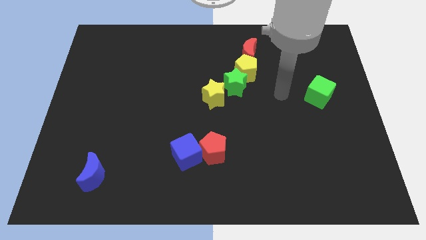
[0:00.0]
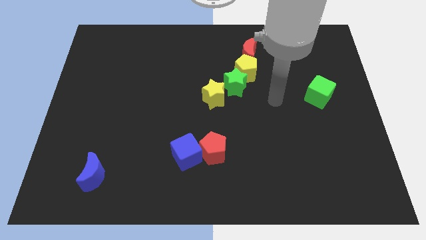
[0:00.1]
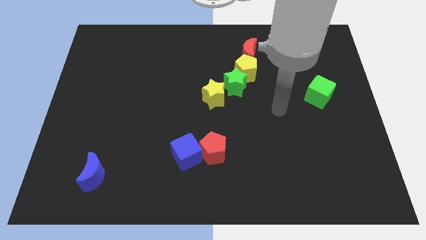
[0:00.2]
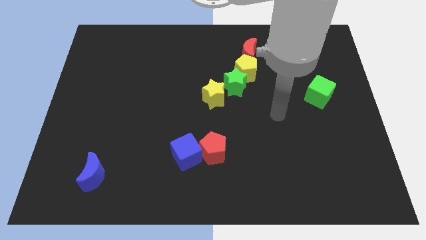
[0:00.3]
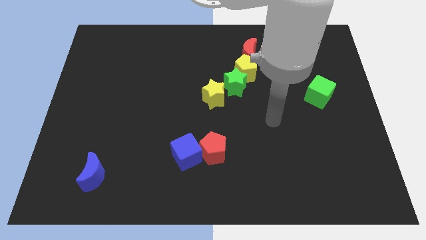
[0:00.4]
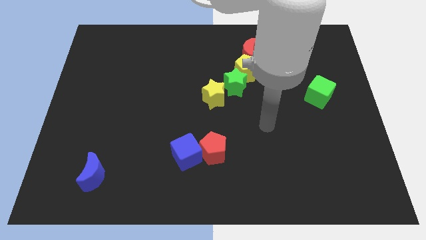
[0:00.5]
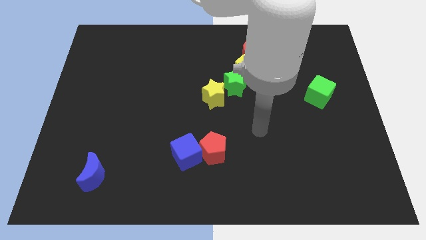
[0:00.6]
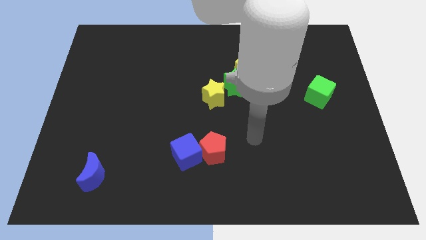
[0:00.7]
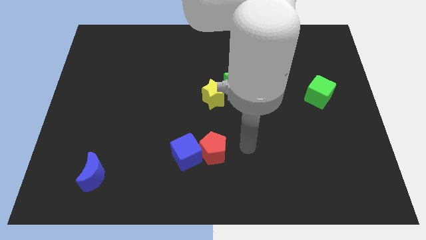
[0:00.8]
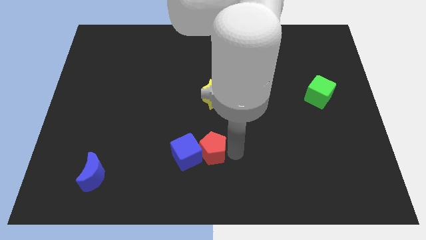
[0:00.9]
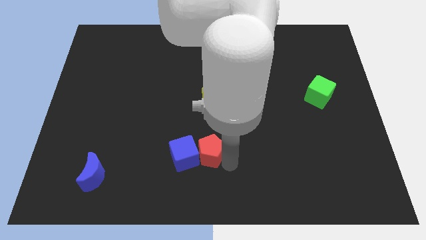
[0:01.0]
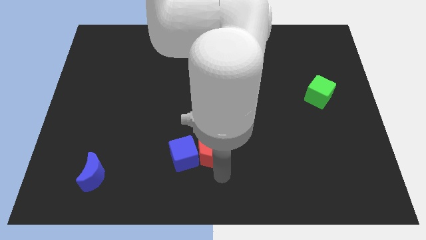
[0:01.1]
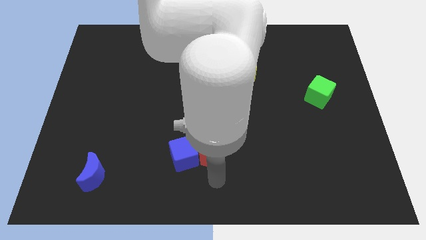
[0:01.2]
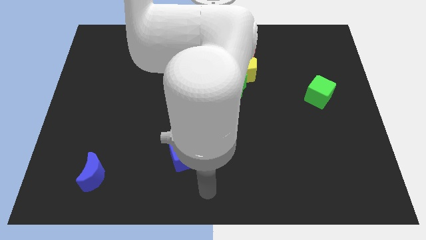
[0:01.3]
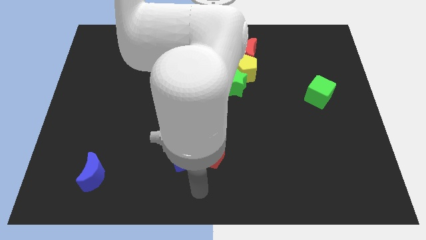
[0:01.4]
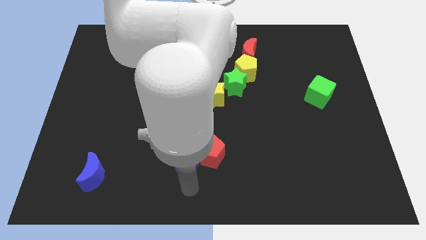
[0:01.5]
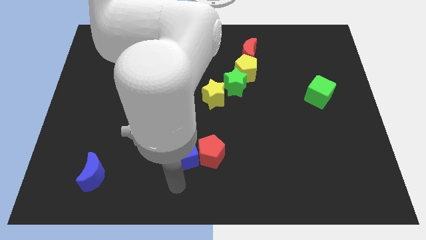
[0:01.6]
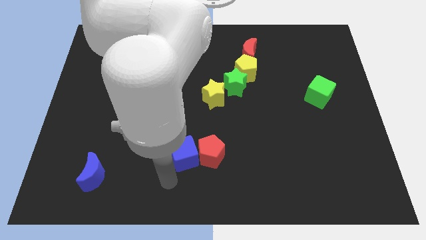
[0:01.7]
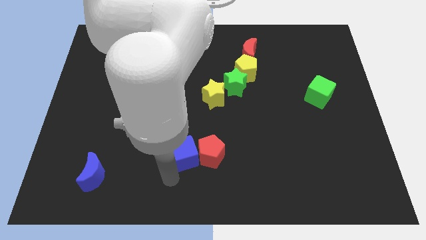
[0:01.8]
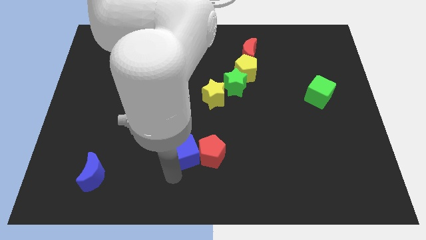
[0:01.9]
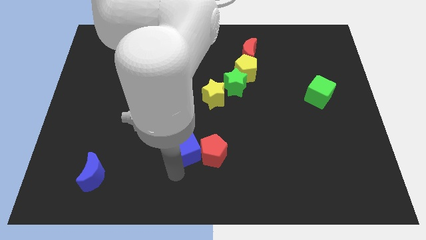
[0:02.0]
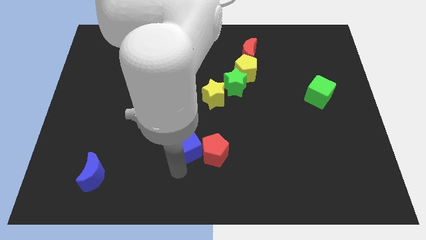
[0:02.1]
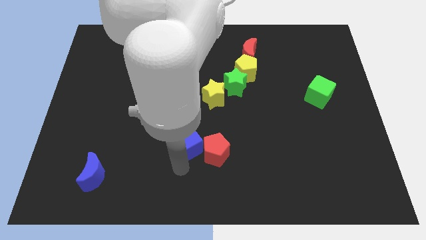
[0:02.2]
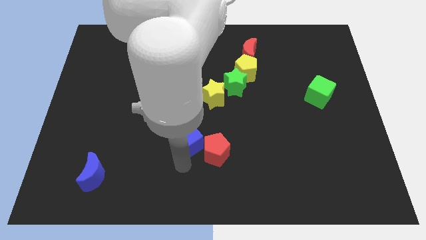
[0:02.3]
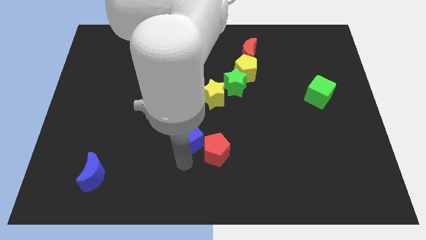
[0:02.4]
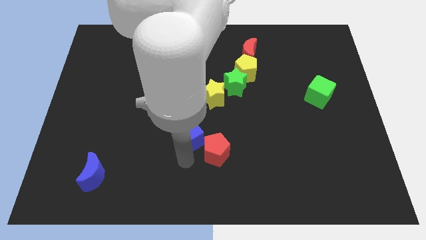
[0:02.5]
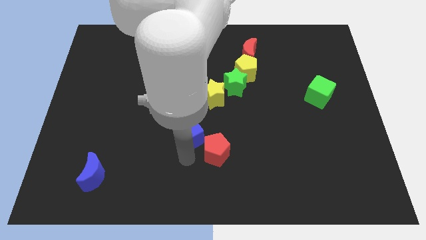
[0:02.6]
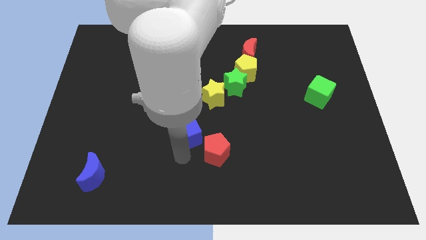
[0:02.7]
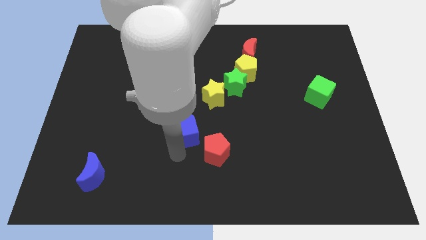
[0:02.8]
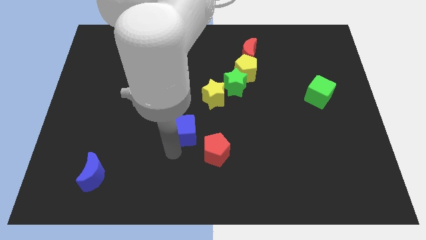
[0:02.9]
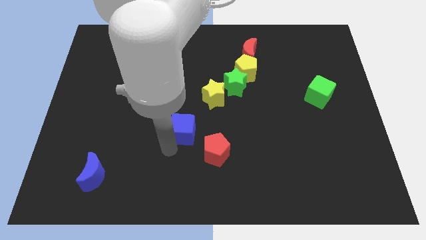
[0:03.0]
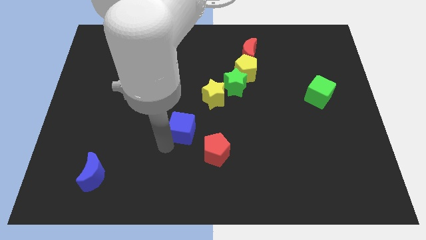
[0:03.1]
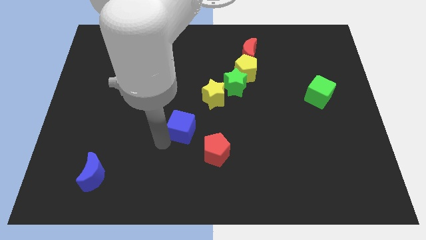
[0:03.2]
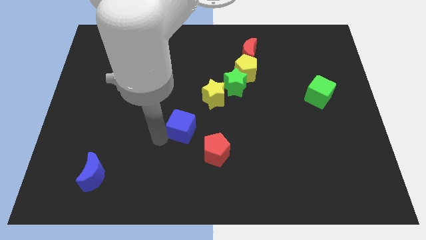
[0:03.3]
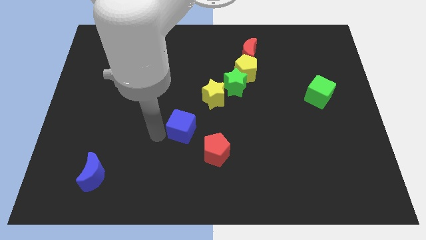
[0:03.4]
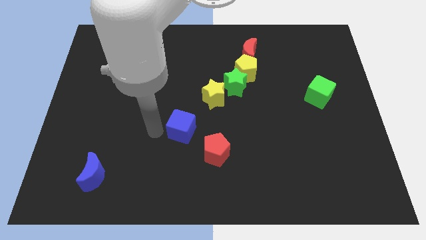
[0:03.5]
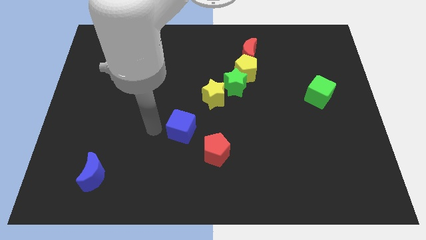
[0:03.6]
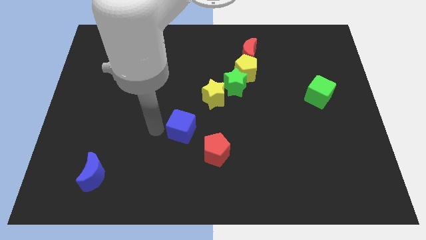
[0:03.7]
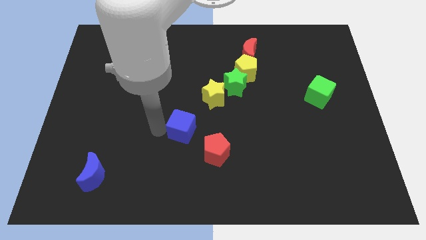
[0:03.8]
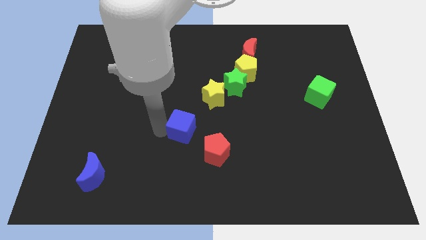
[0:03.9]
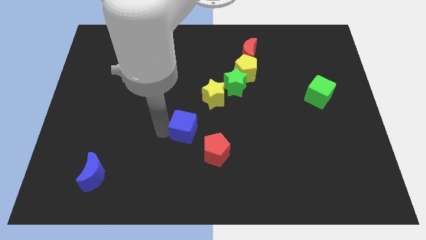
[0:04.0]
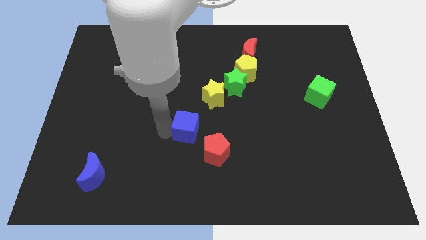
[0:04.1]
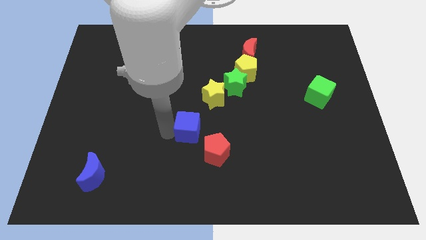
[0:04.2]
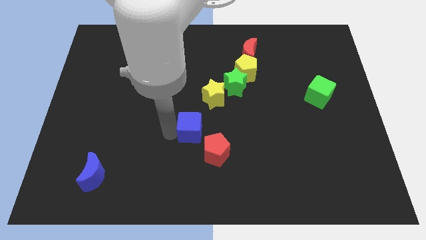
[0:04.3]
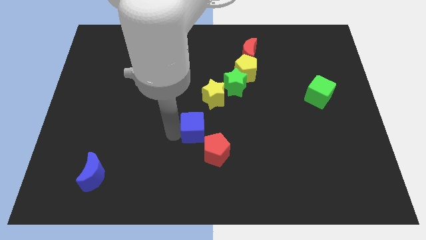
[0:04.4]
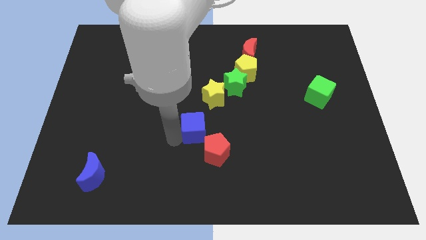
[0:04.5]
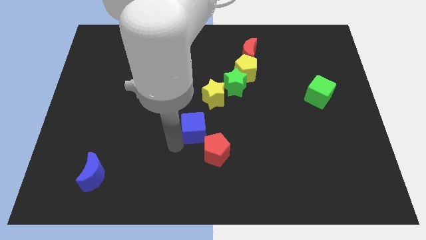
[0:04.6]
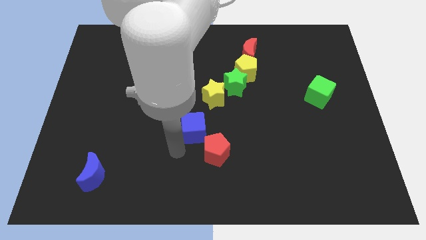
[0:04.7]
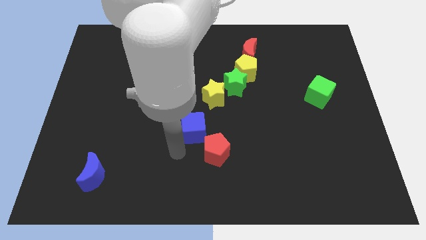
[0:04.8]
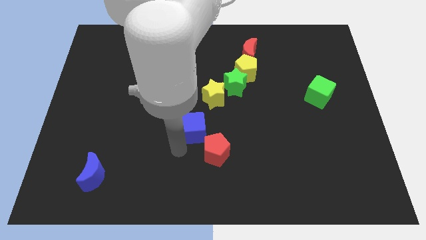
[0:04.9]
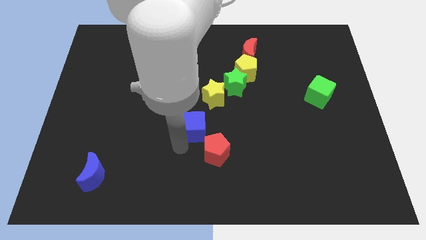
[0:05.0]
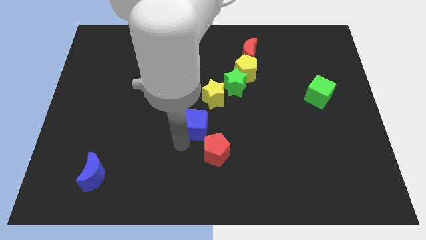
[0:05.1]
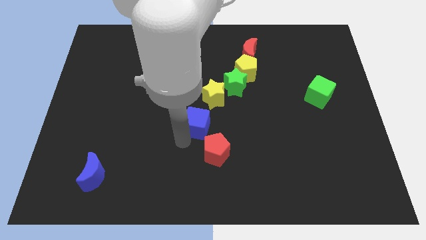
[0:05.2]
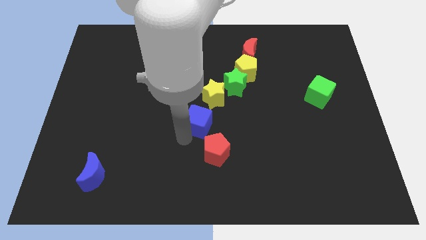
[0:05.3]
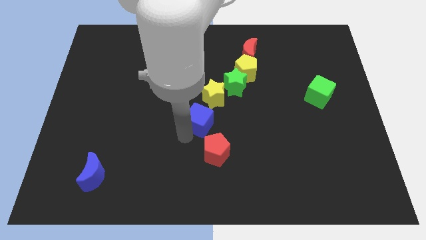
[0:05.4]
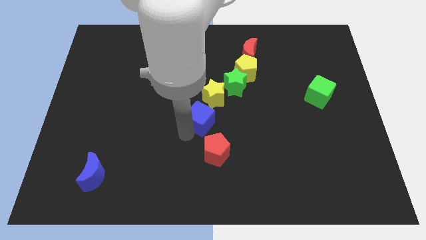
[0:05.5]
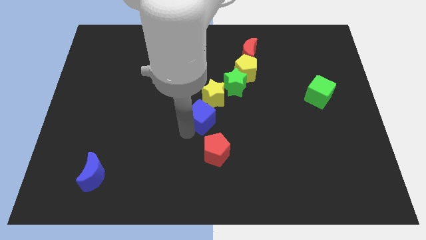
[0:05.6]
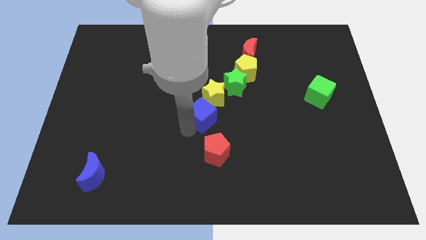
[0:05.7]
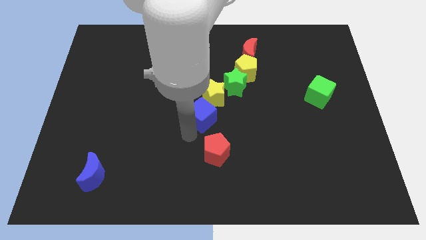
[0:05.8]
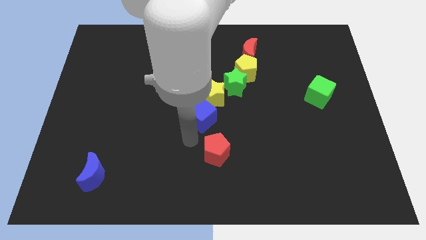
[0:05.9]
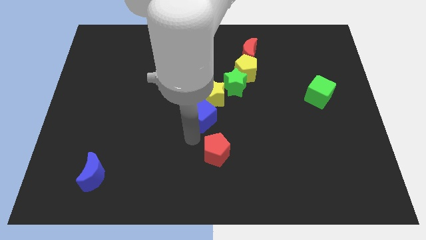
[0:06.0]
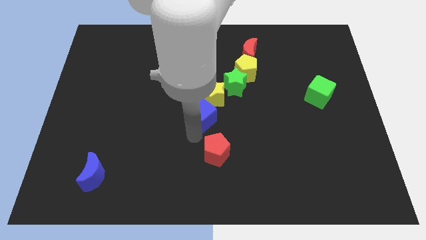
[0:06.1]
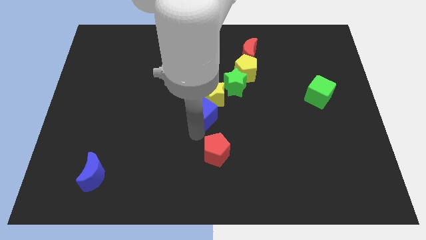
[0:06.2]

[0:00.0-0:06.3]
slide the blue cube close to the yellow star
